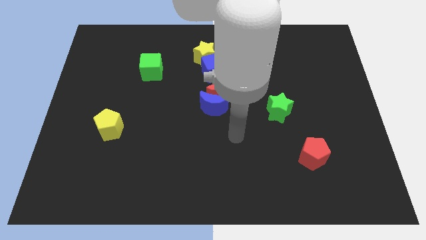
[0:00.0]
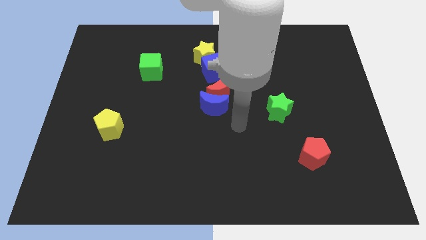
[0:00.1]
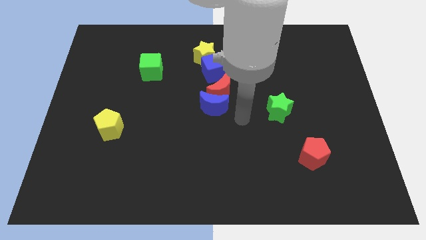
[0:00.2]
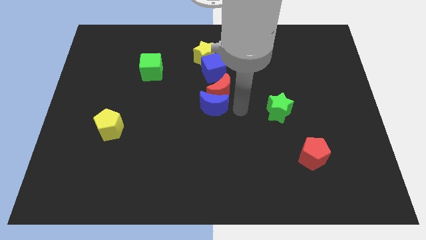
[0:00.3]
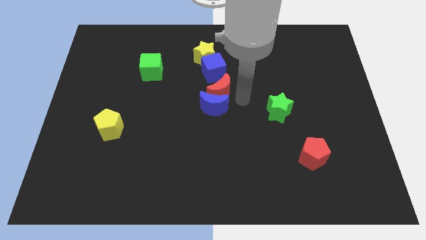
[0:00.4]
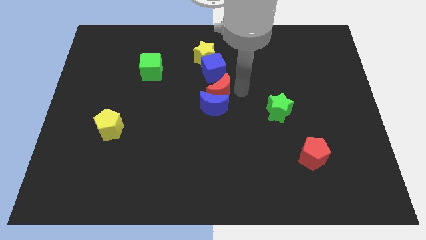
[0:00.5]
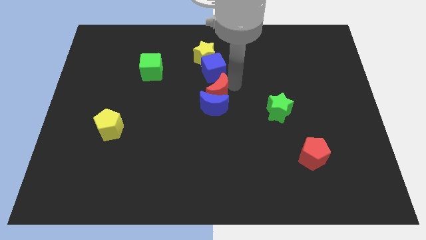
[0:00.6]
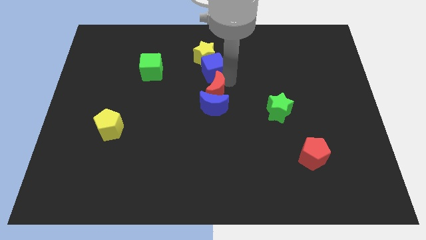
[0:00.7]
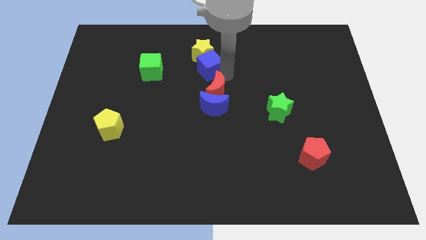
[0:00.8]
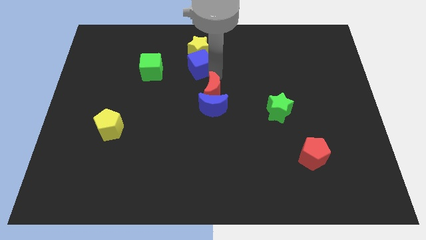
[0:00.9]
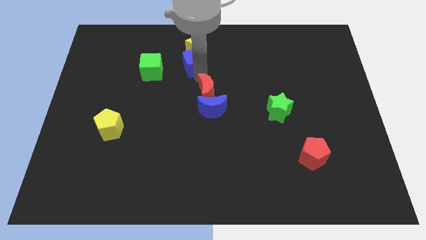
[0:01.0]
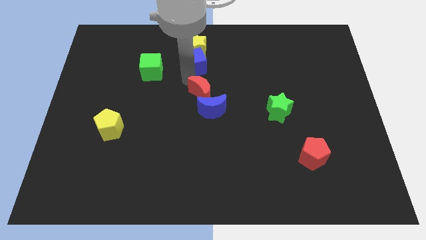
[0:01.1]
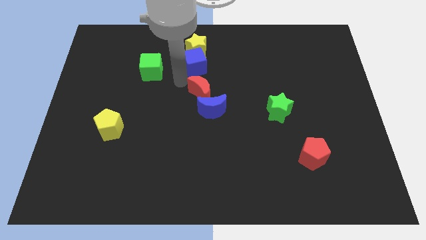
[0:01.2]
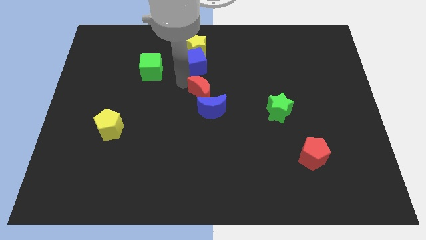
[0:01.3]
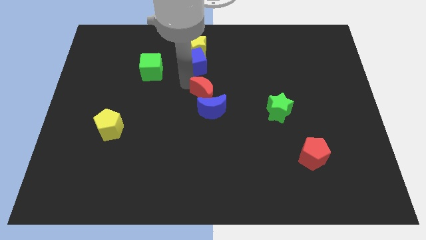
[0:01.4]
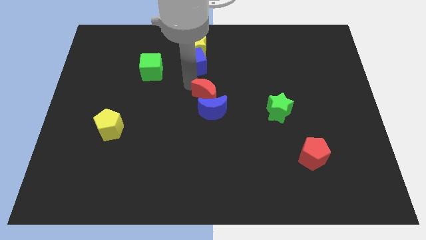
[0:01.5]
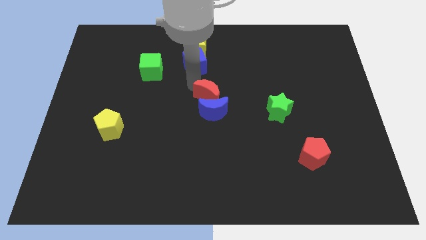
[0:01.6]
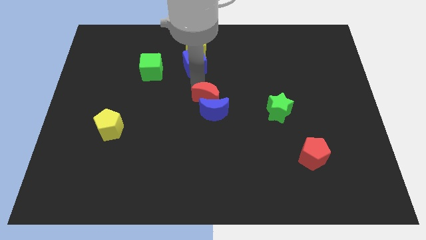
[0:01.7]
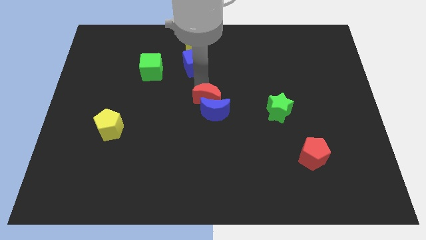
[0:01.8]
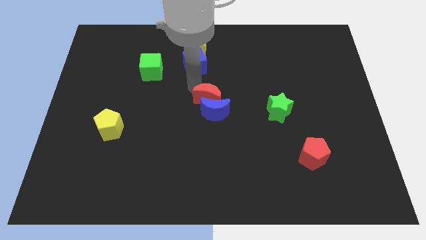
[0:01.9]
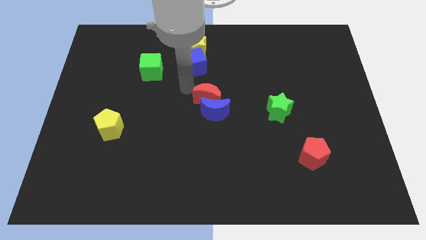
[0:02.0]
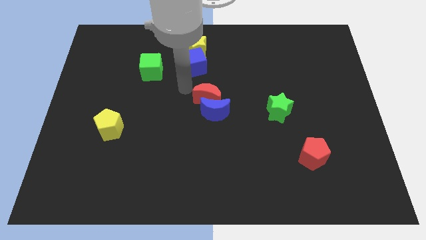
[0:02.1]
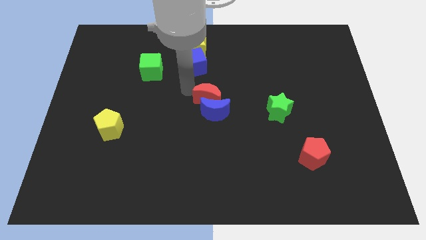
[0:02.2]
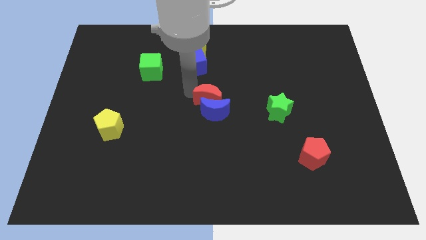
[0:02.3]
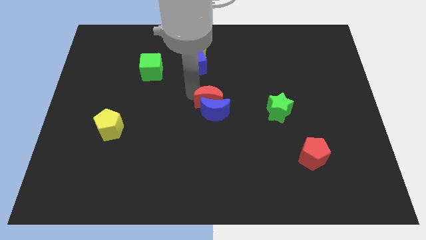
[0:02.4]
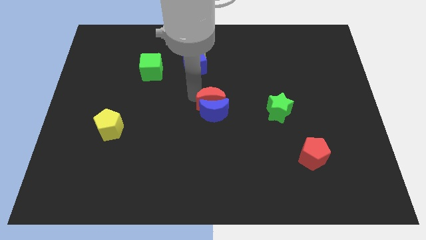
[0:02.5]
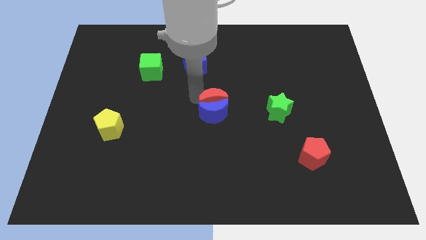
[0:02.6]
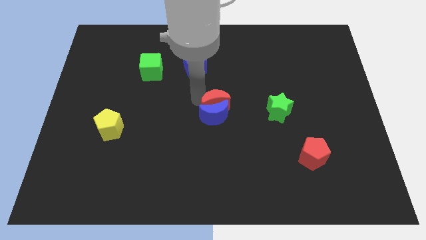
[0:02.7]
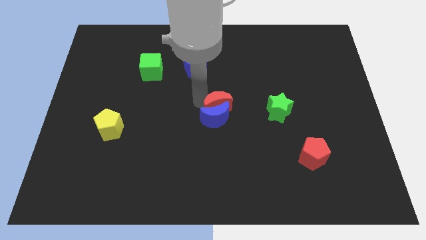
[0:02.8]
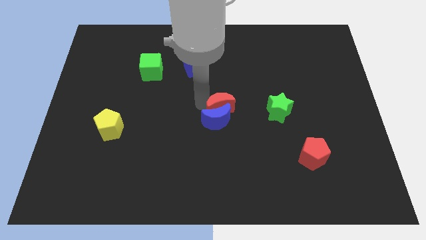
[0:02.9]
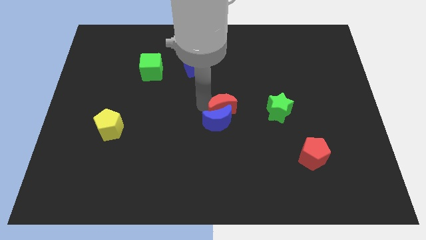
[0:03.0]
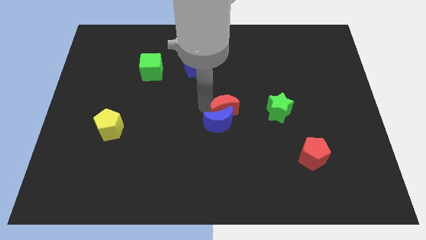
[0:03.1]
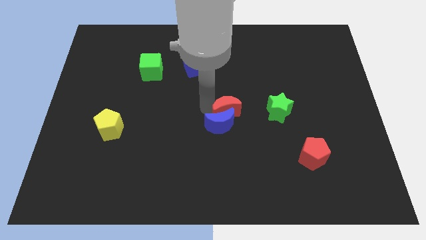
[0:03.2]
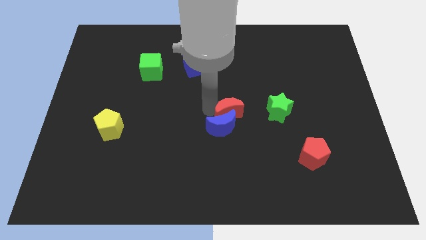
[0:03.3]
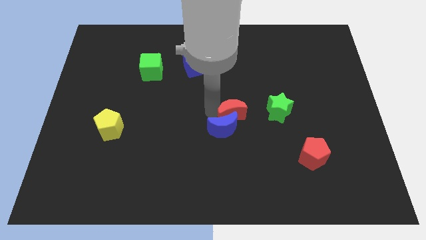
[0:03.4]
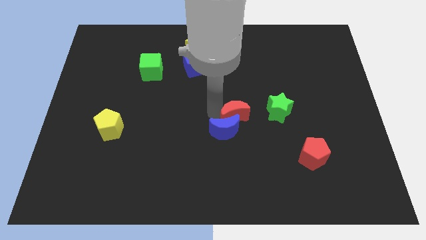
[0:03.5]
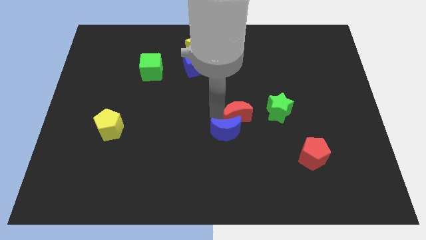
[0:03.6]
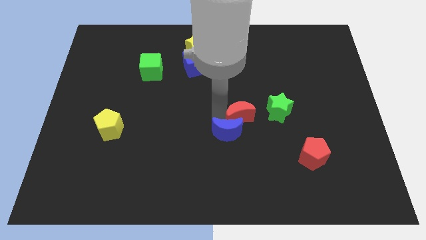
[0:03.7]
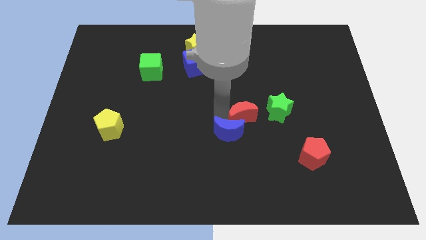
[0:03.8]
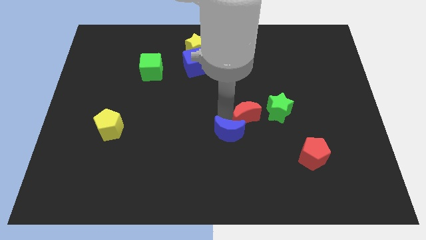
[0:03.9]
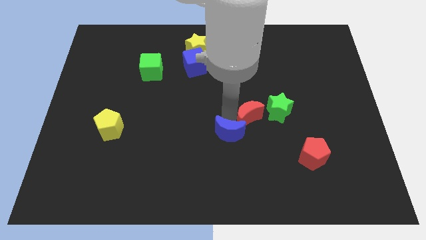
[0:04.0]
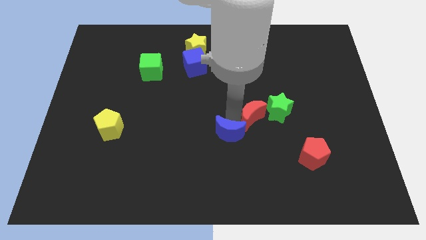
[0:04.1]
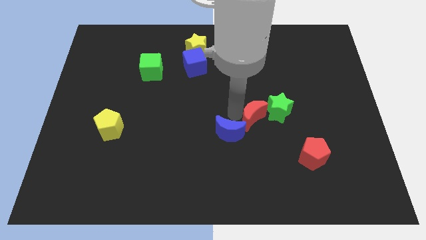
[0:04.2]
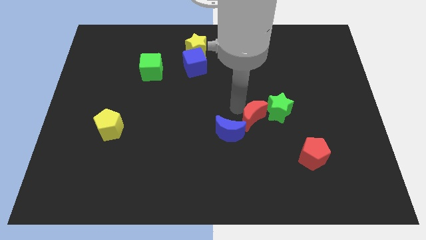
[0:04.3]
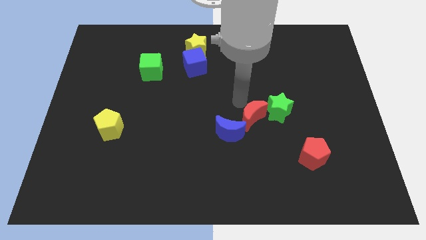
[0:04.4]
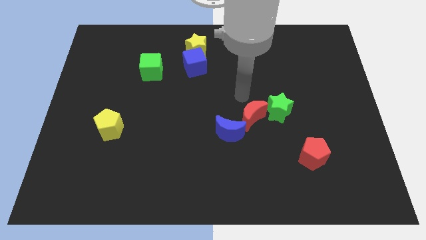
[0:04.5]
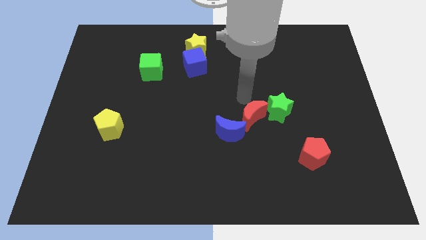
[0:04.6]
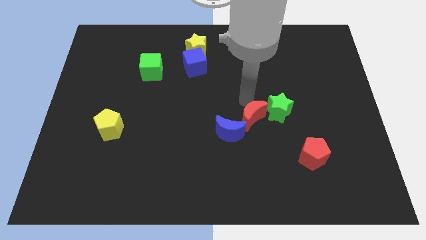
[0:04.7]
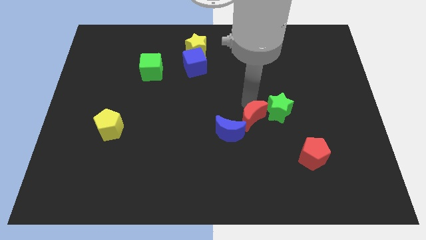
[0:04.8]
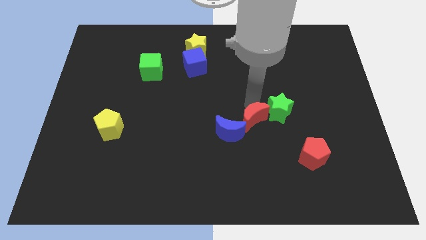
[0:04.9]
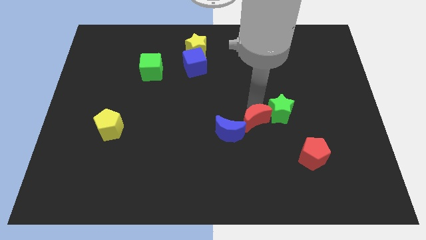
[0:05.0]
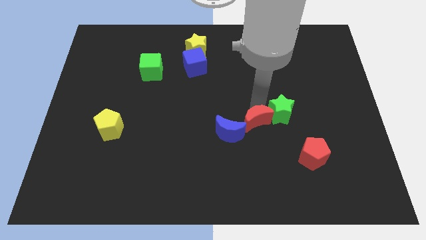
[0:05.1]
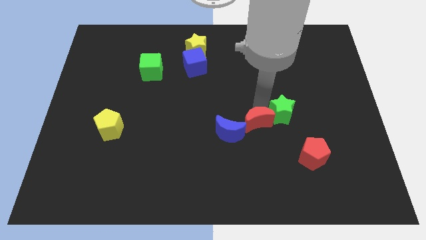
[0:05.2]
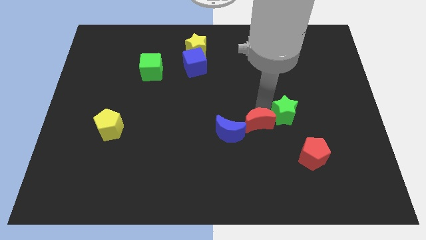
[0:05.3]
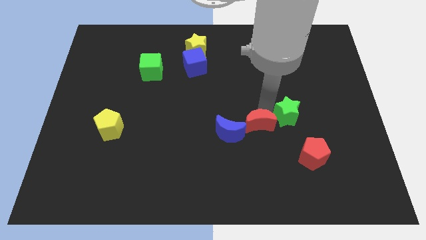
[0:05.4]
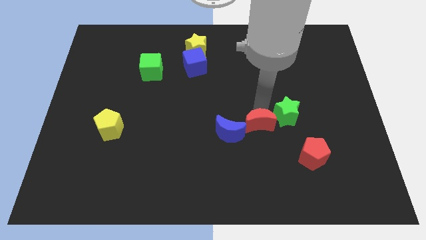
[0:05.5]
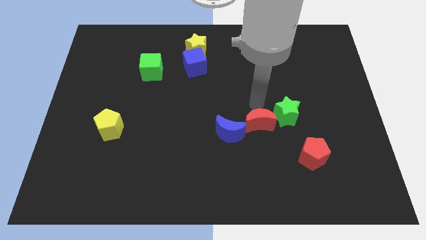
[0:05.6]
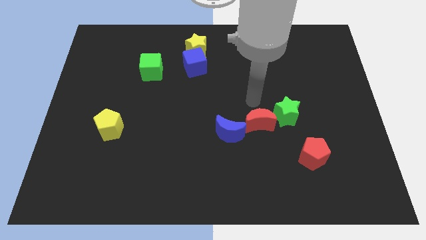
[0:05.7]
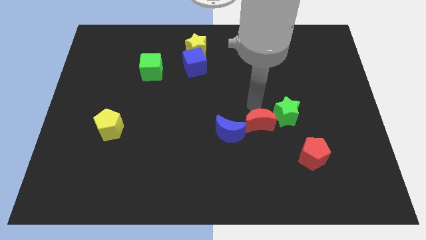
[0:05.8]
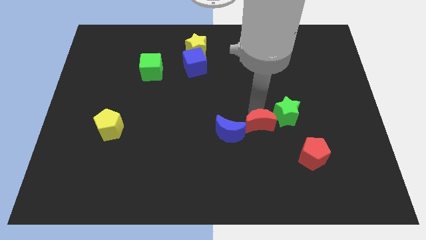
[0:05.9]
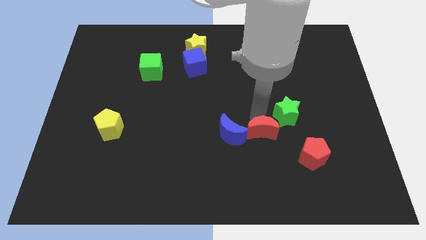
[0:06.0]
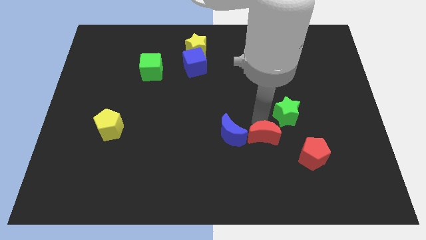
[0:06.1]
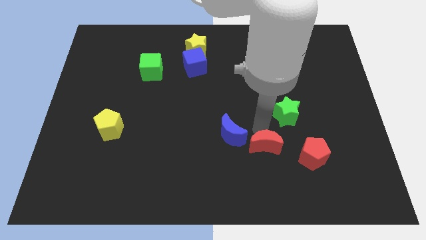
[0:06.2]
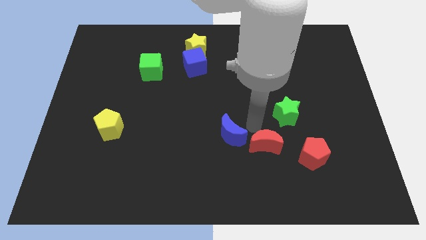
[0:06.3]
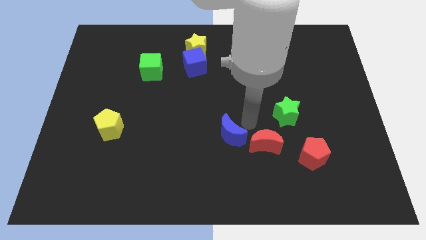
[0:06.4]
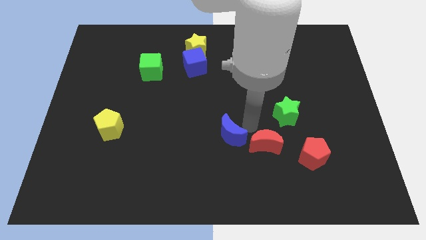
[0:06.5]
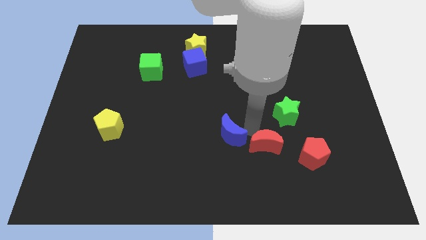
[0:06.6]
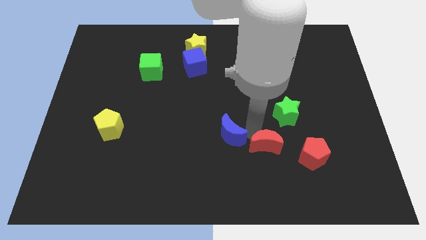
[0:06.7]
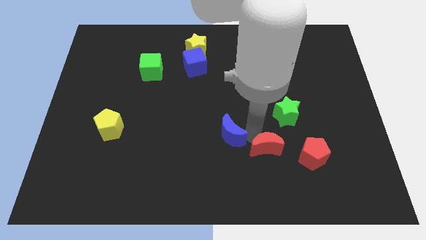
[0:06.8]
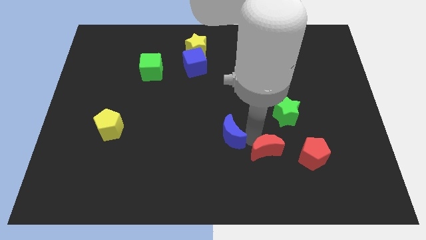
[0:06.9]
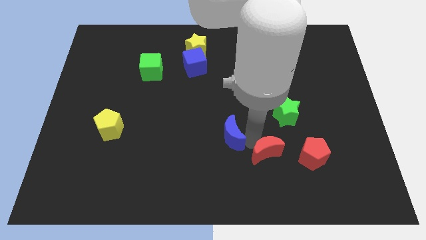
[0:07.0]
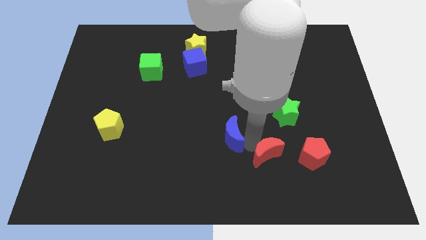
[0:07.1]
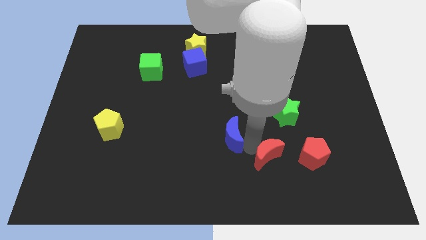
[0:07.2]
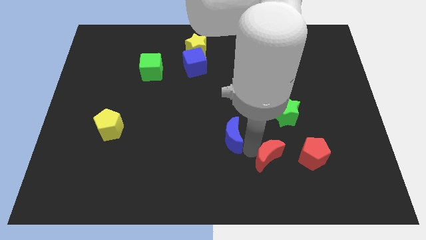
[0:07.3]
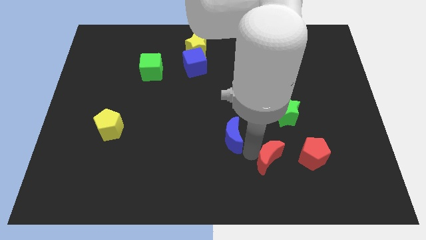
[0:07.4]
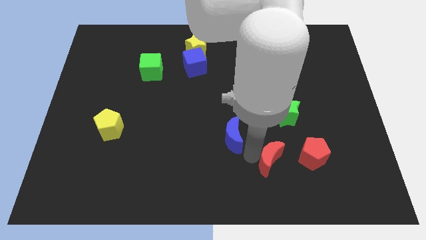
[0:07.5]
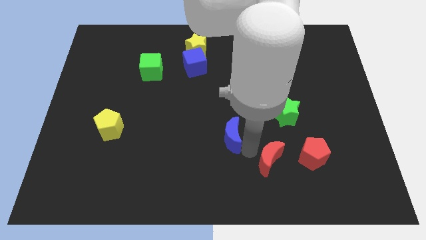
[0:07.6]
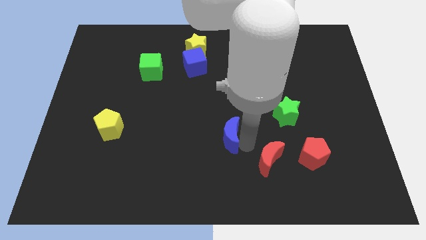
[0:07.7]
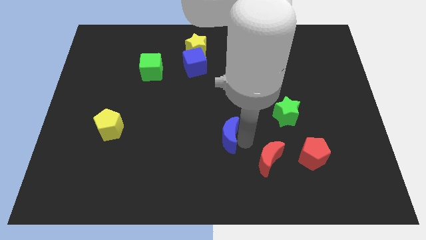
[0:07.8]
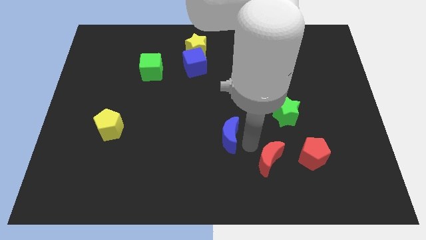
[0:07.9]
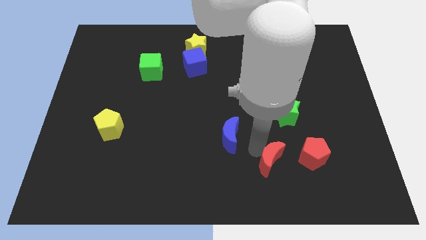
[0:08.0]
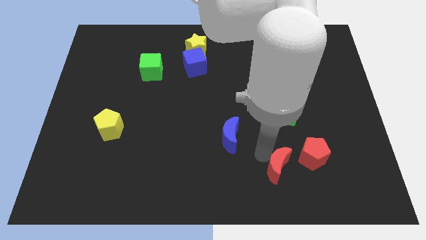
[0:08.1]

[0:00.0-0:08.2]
move the red moon to the bottom left side of the red pentagon
